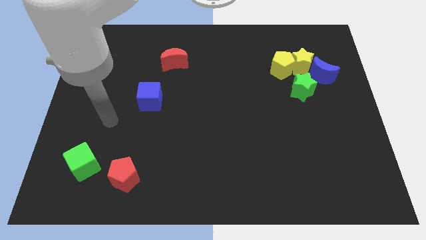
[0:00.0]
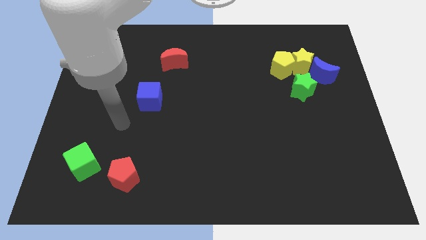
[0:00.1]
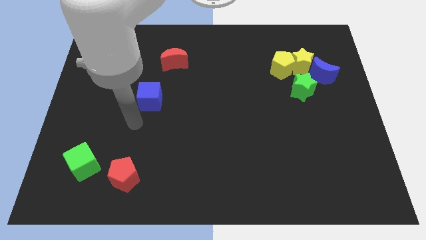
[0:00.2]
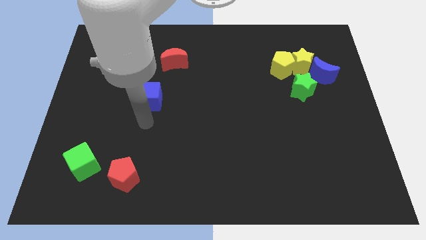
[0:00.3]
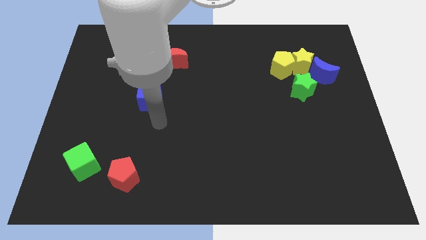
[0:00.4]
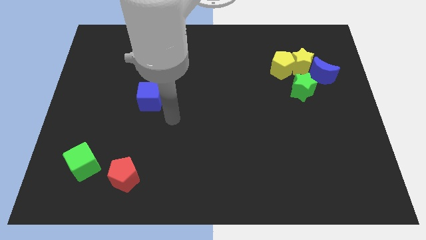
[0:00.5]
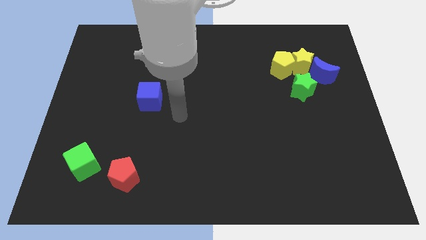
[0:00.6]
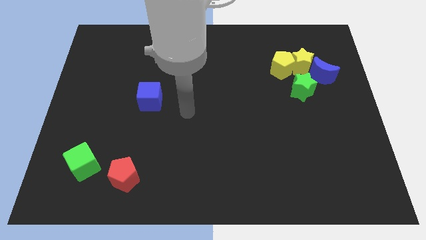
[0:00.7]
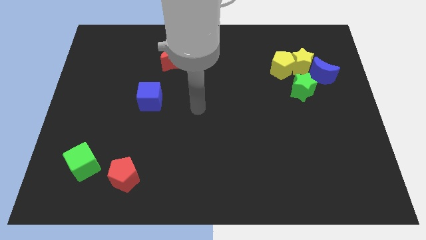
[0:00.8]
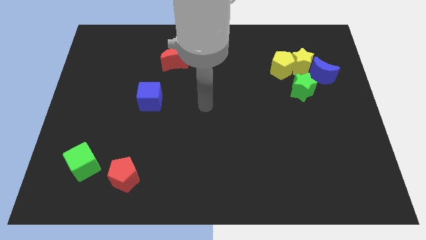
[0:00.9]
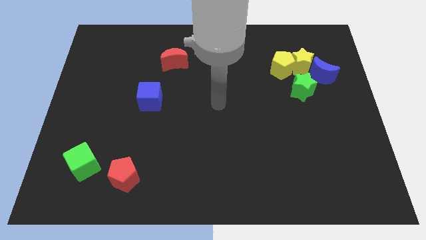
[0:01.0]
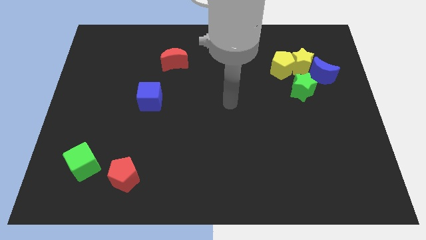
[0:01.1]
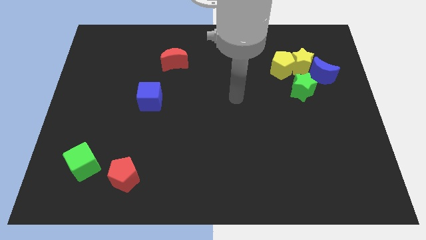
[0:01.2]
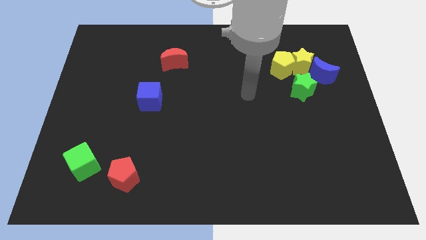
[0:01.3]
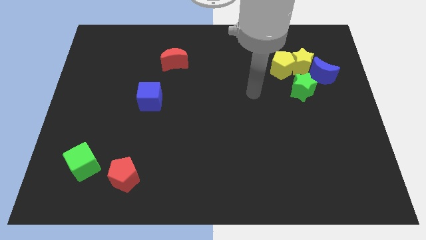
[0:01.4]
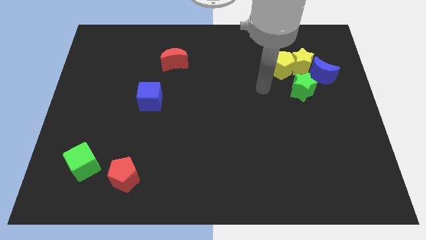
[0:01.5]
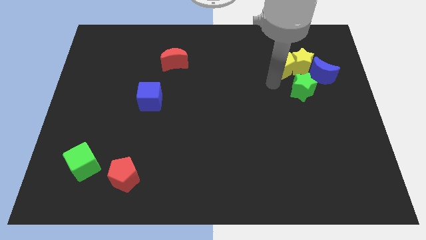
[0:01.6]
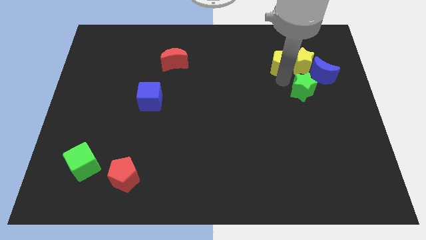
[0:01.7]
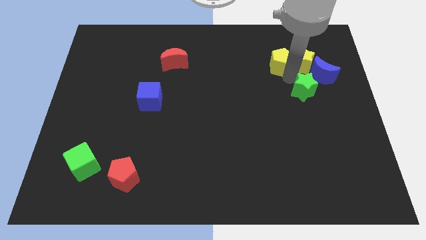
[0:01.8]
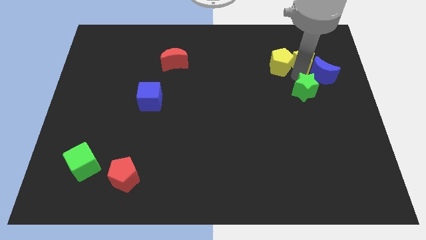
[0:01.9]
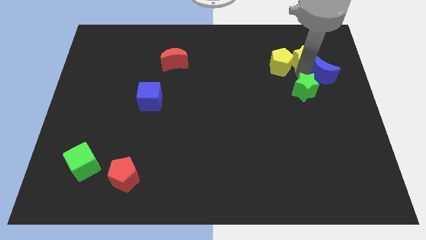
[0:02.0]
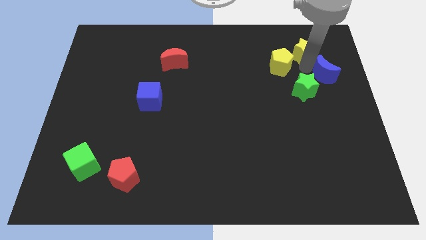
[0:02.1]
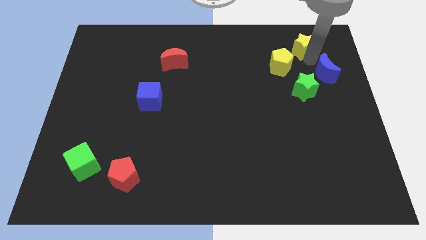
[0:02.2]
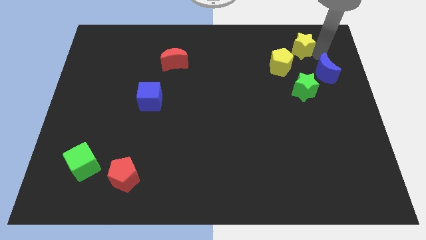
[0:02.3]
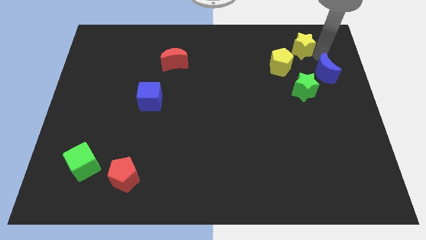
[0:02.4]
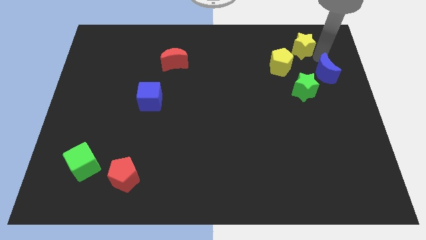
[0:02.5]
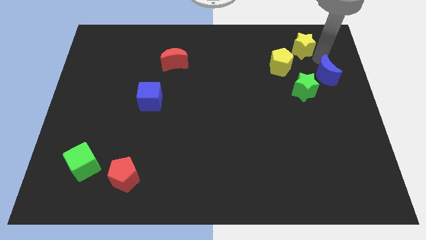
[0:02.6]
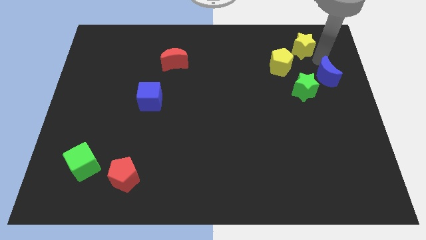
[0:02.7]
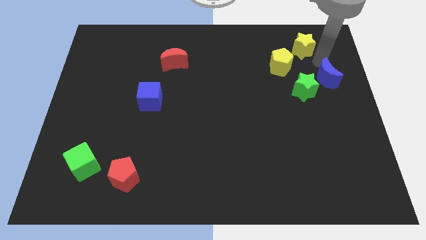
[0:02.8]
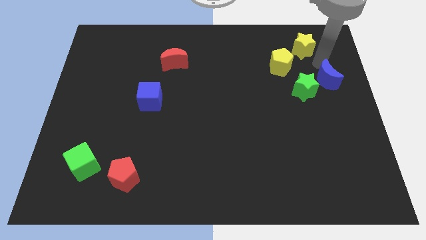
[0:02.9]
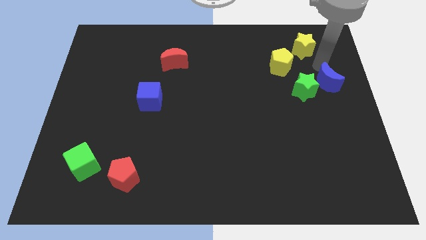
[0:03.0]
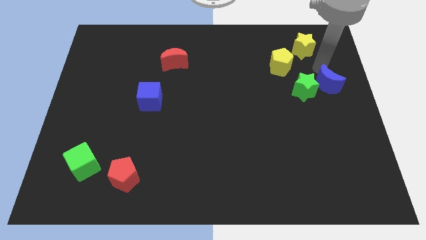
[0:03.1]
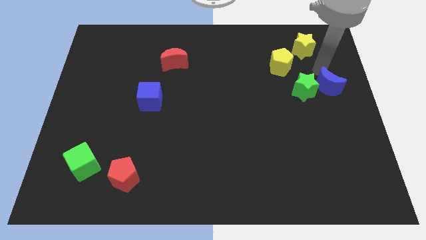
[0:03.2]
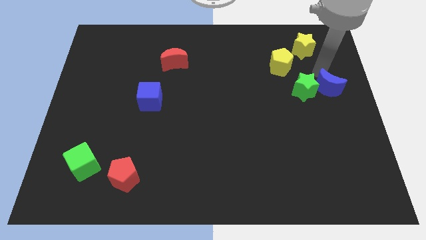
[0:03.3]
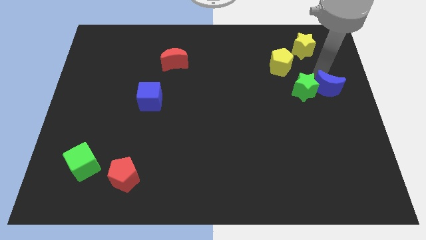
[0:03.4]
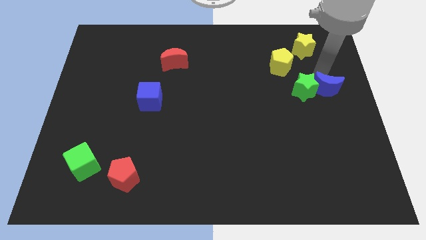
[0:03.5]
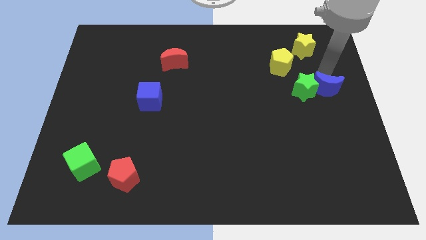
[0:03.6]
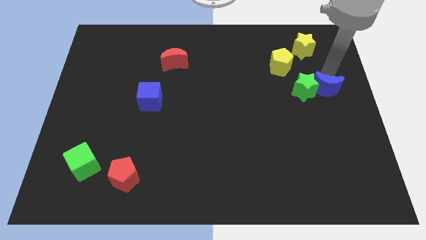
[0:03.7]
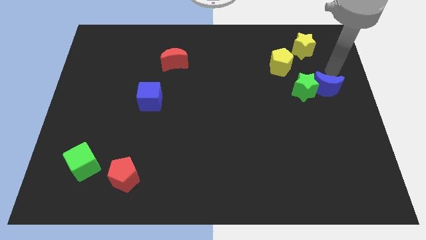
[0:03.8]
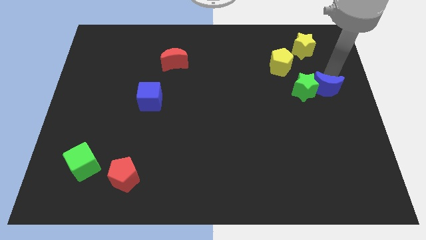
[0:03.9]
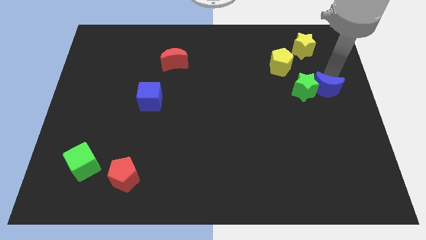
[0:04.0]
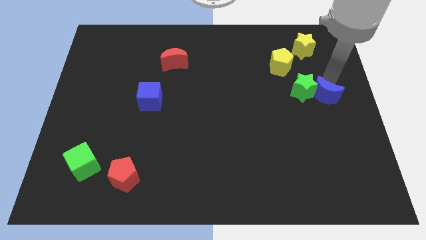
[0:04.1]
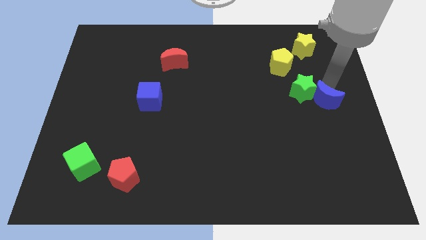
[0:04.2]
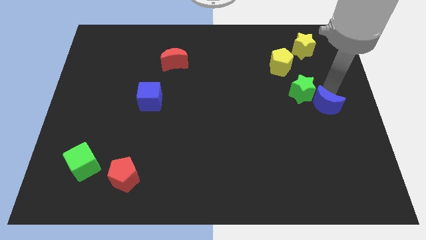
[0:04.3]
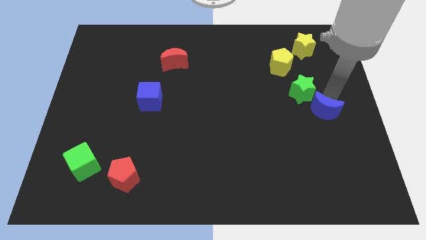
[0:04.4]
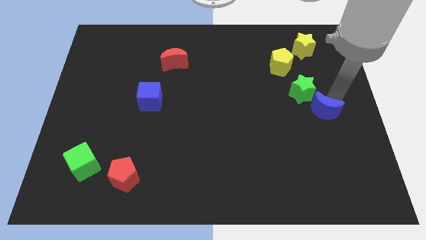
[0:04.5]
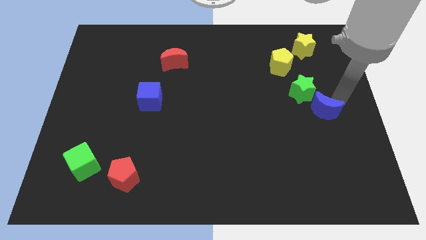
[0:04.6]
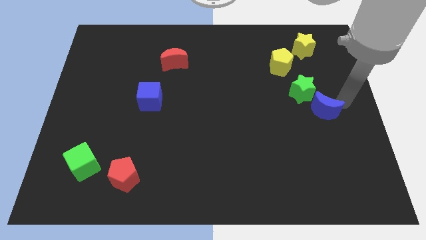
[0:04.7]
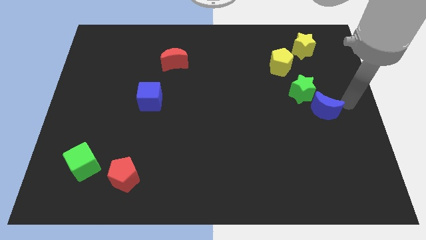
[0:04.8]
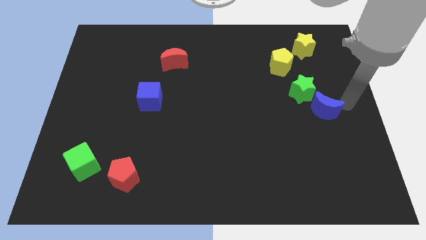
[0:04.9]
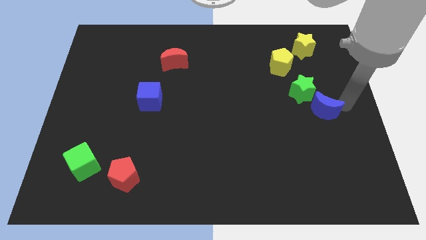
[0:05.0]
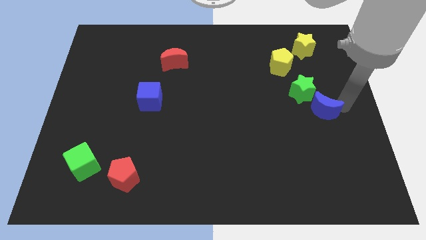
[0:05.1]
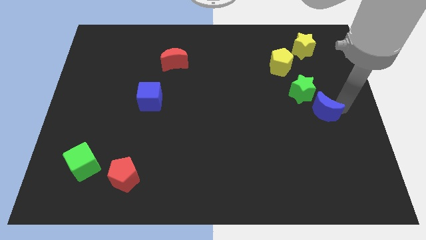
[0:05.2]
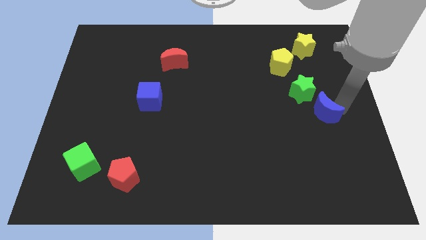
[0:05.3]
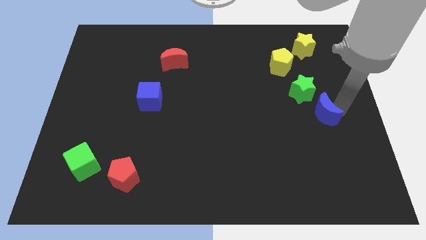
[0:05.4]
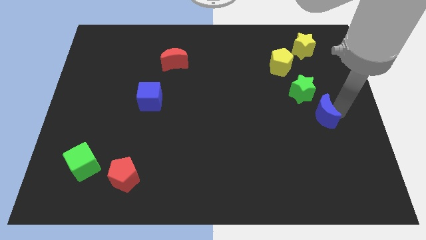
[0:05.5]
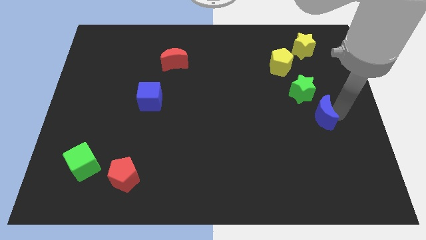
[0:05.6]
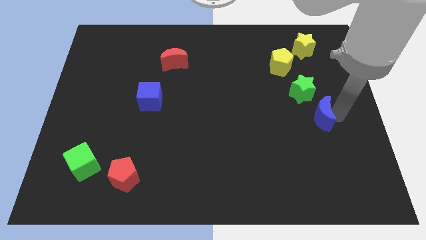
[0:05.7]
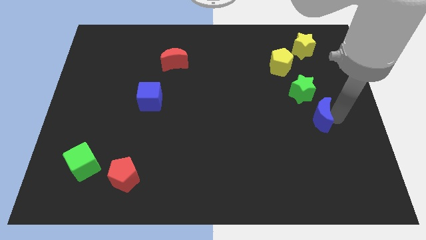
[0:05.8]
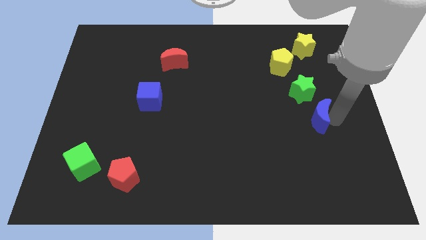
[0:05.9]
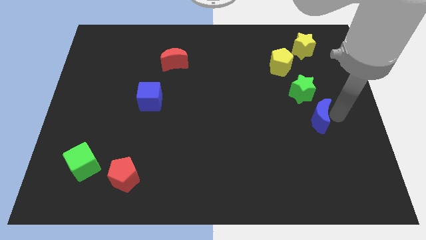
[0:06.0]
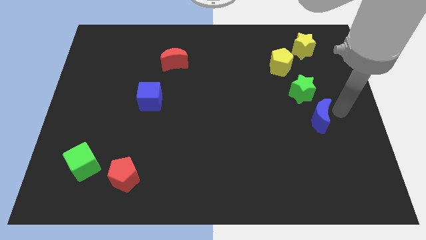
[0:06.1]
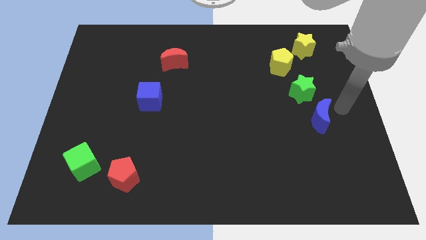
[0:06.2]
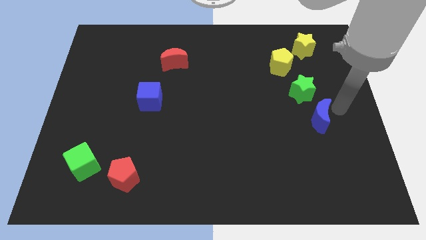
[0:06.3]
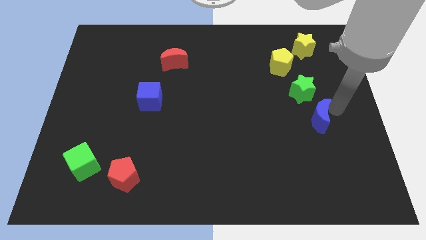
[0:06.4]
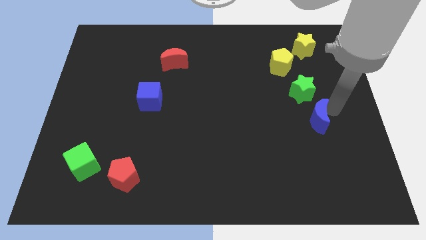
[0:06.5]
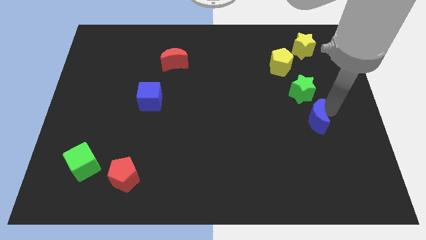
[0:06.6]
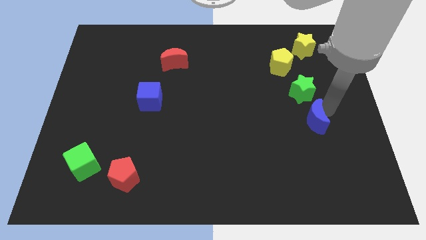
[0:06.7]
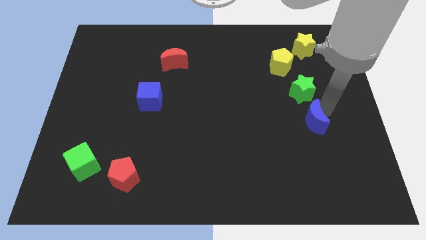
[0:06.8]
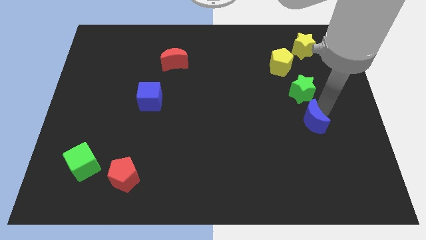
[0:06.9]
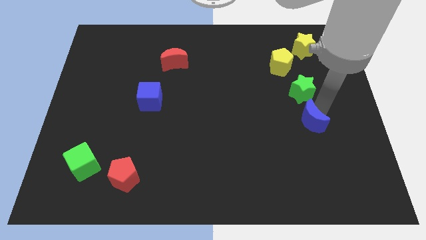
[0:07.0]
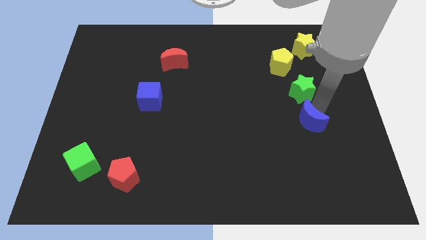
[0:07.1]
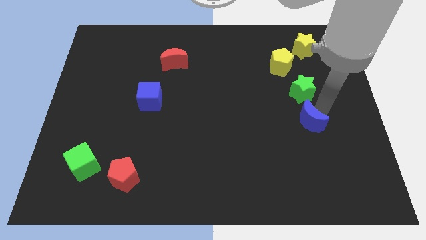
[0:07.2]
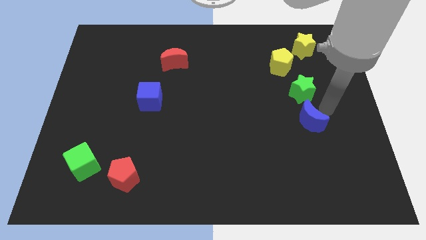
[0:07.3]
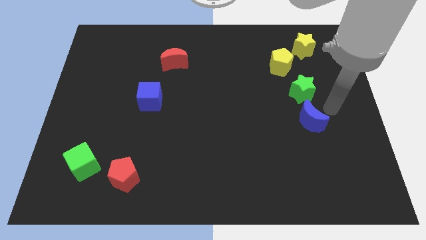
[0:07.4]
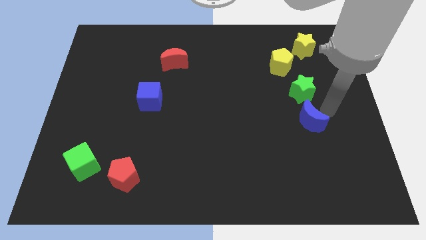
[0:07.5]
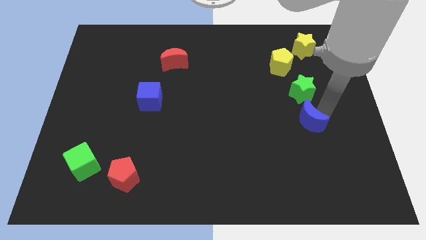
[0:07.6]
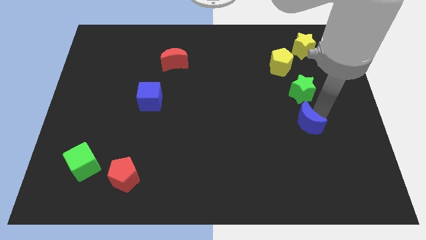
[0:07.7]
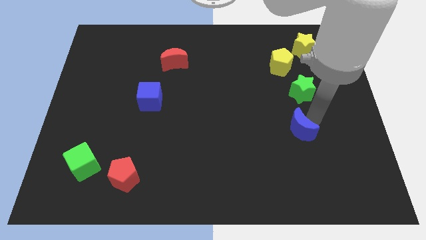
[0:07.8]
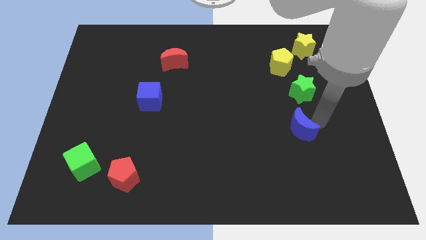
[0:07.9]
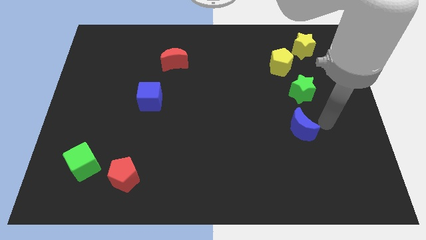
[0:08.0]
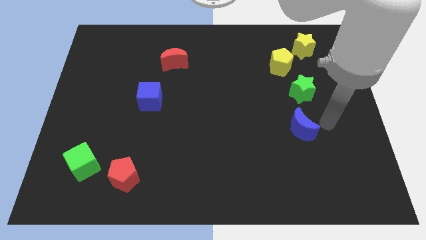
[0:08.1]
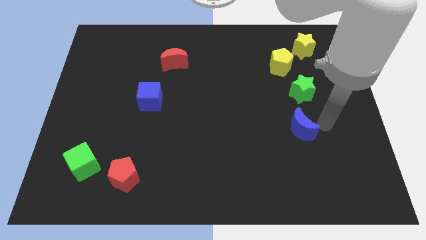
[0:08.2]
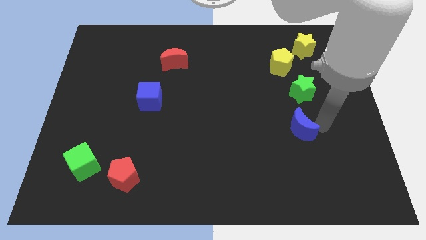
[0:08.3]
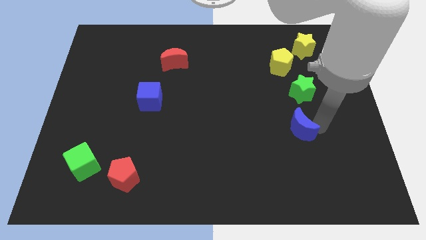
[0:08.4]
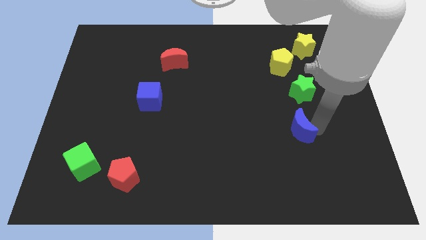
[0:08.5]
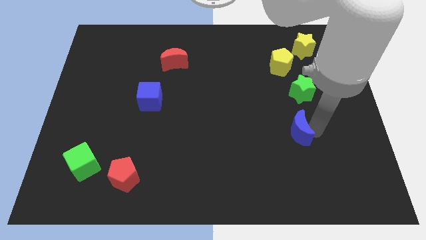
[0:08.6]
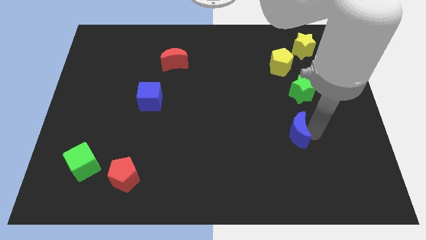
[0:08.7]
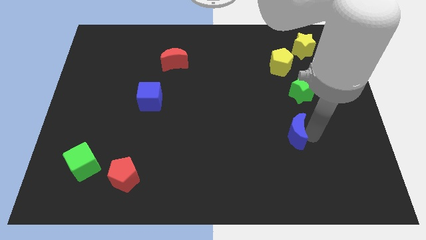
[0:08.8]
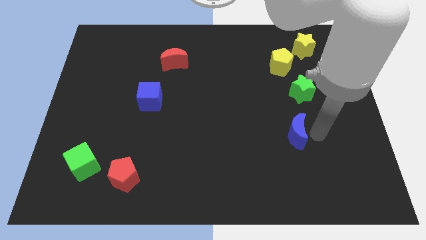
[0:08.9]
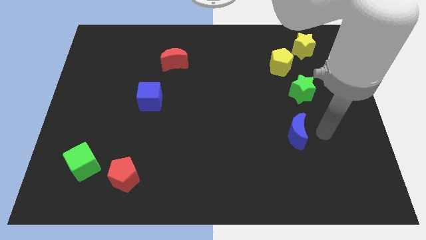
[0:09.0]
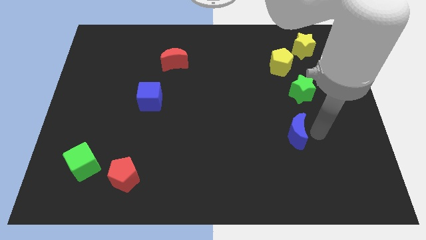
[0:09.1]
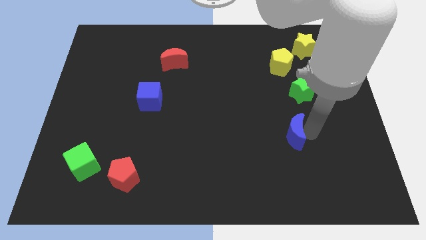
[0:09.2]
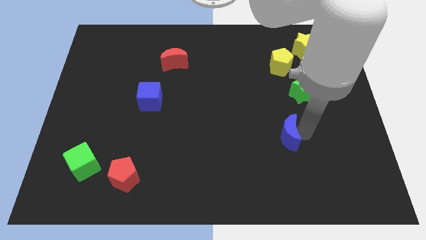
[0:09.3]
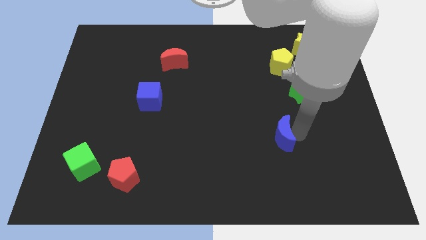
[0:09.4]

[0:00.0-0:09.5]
move the blue moon downwards and to the left
